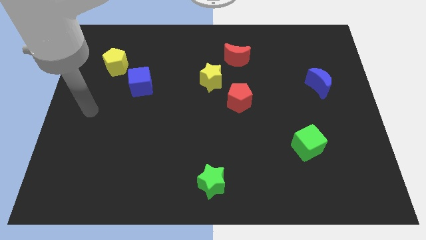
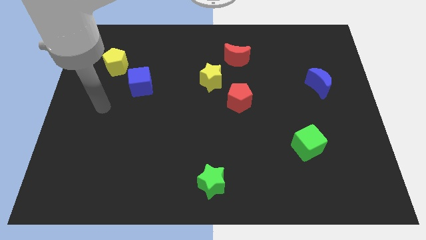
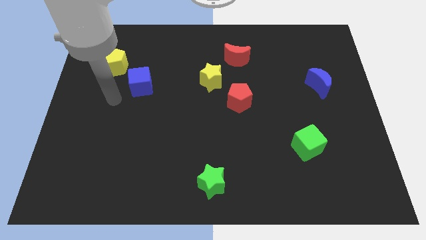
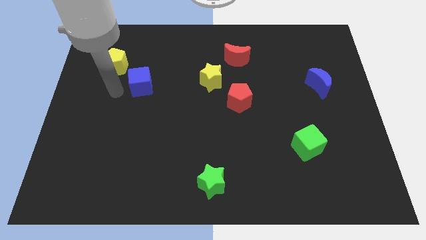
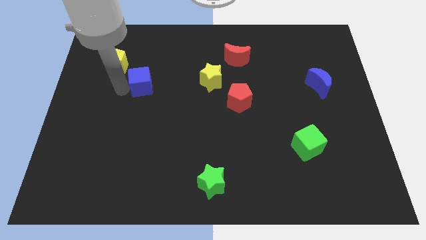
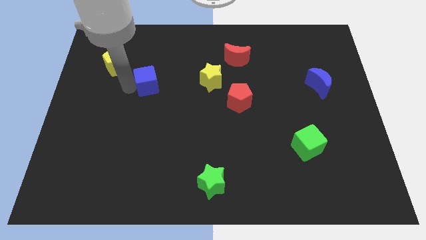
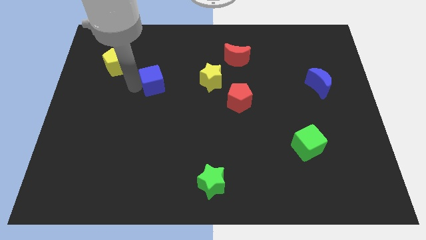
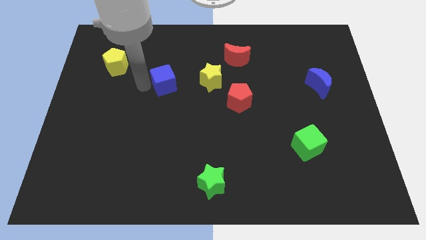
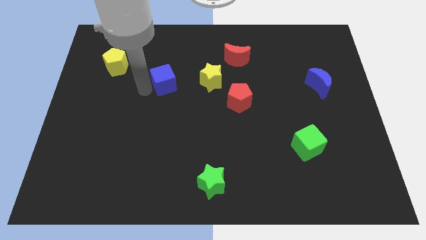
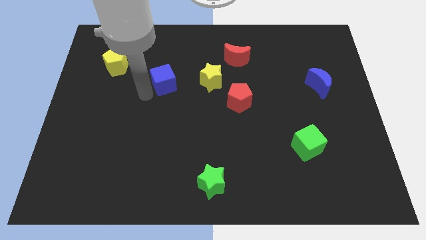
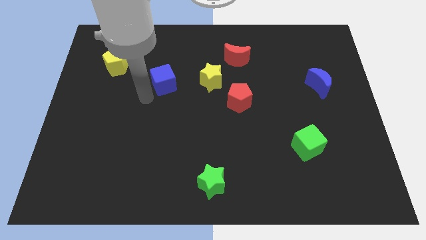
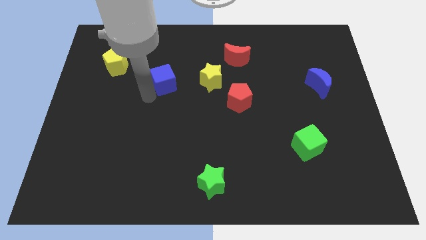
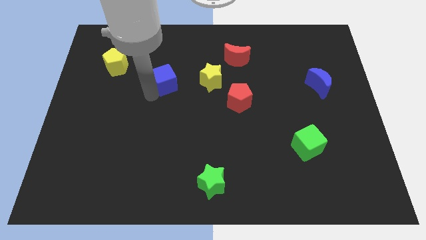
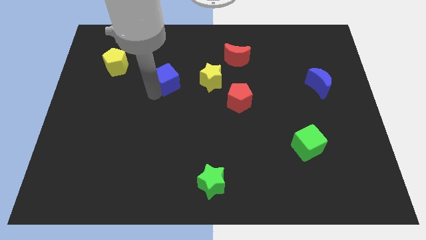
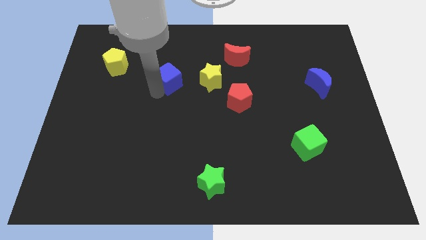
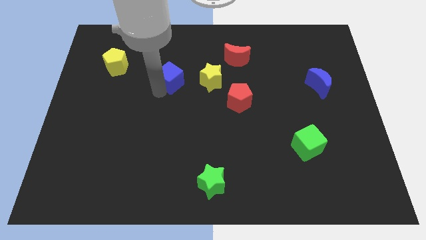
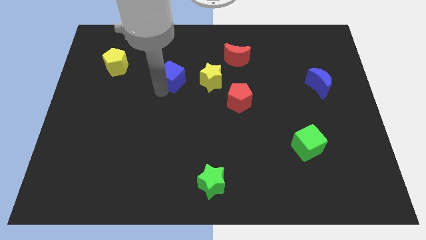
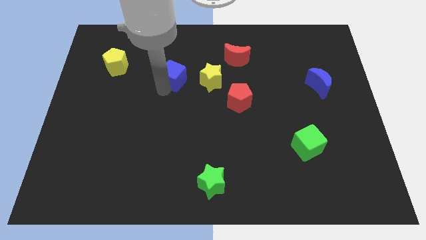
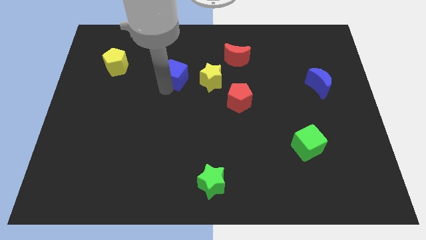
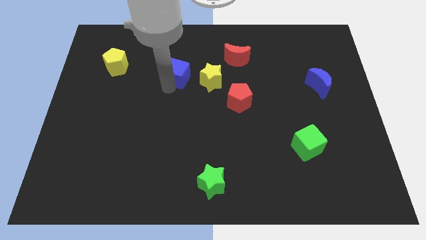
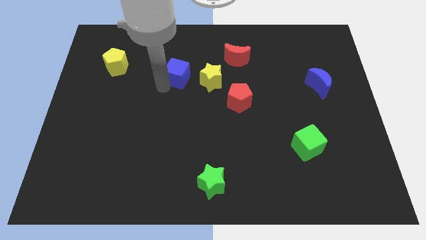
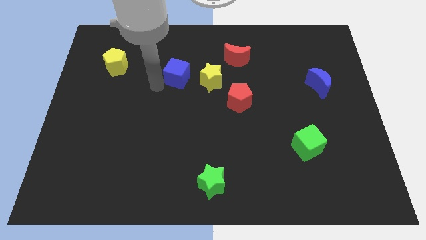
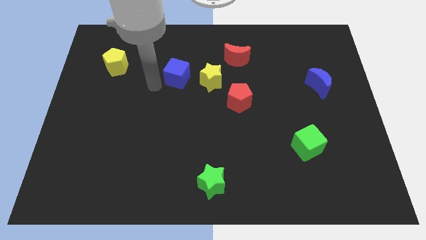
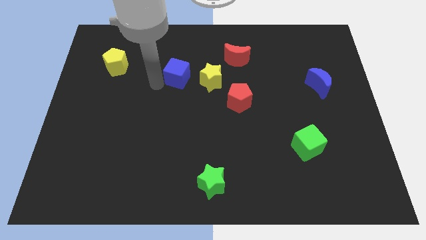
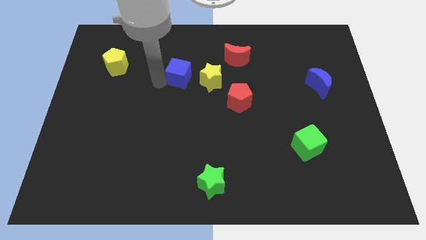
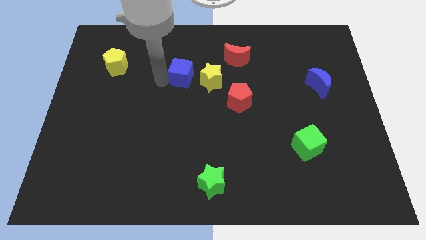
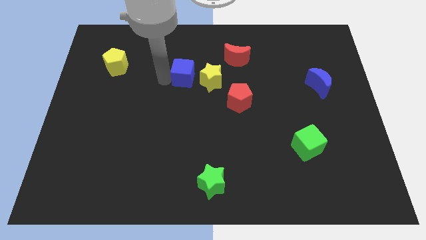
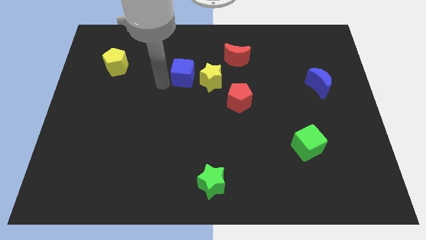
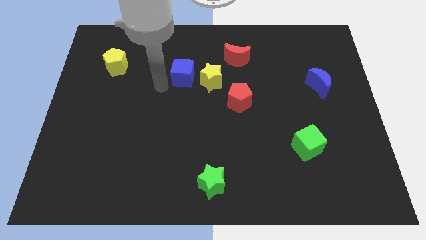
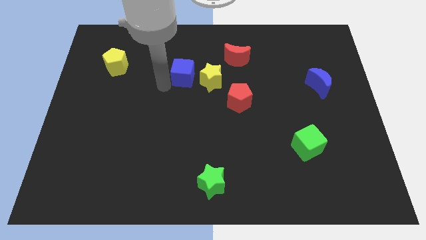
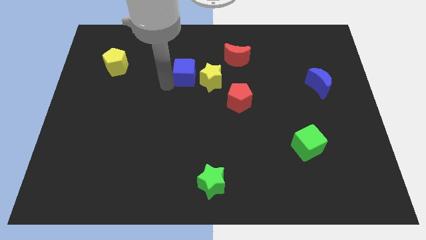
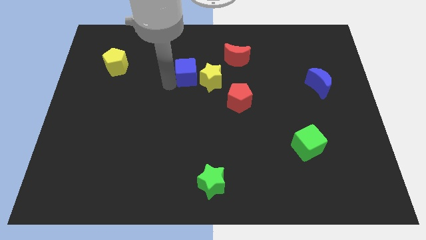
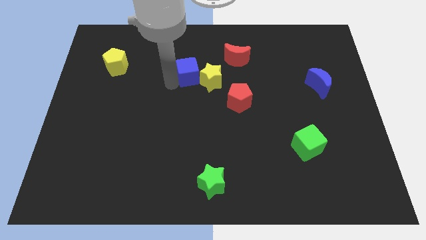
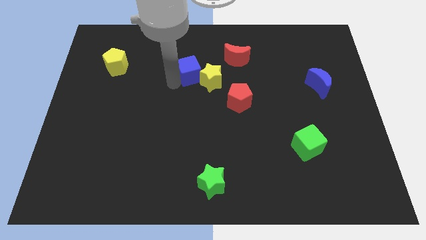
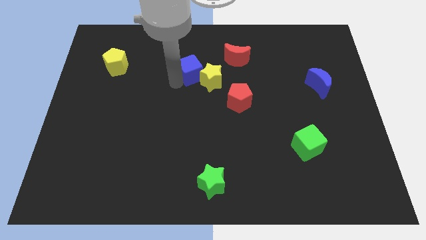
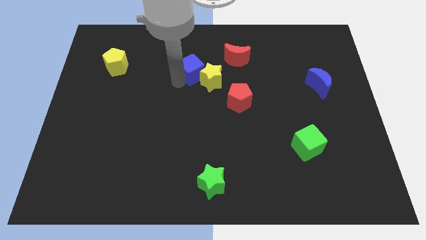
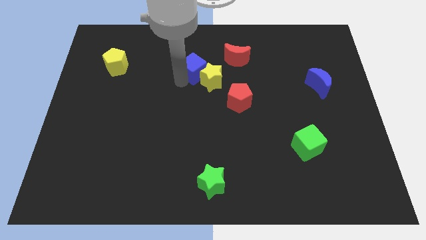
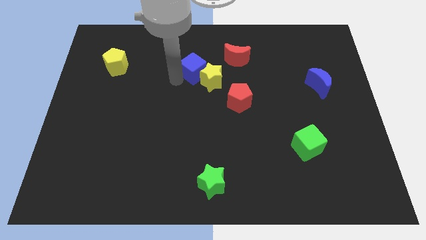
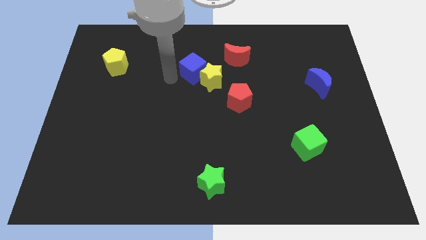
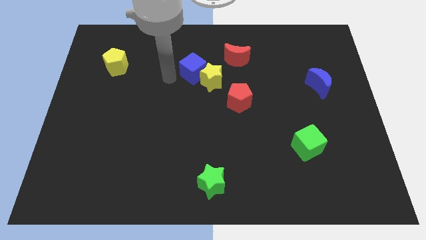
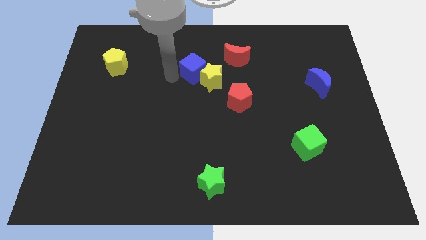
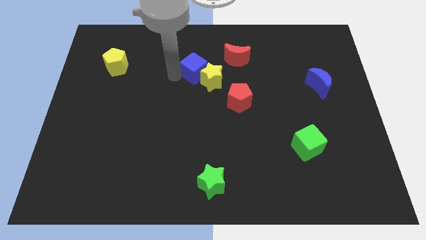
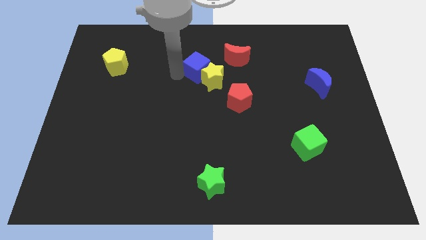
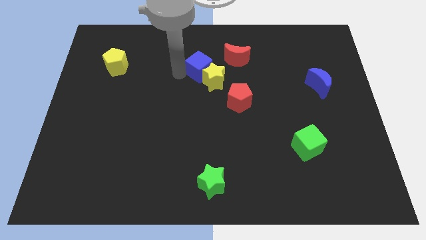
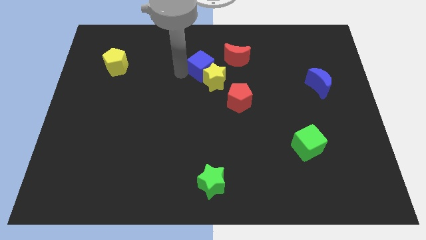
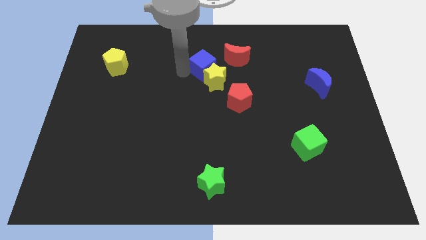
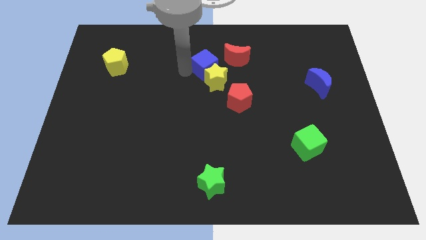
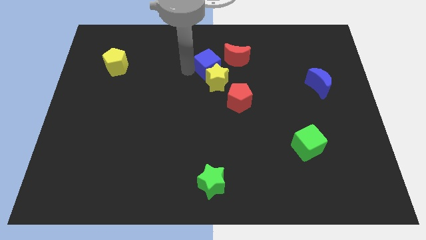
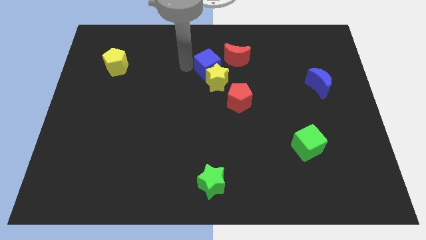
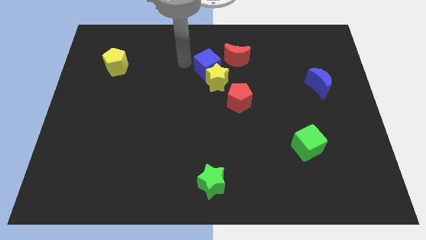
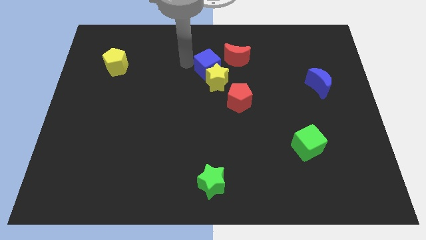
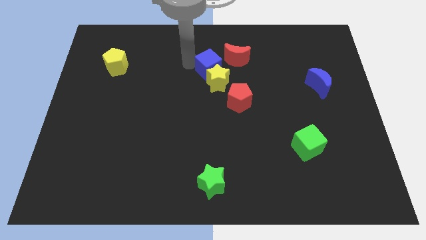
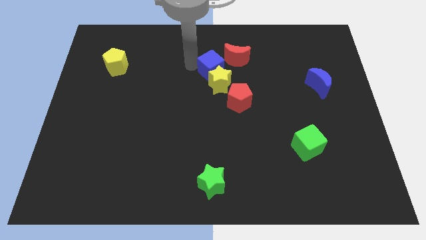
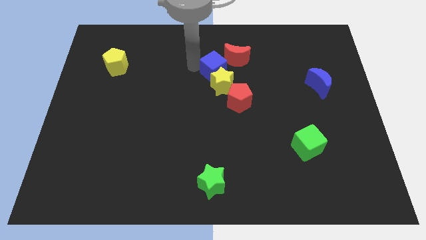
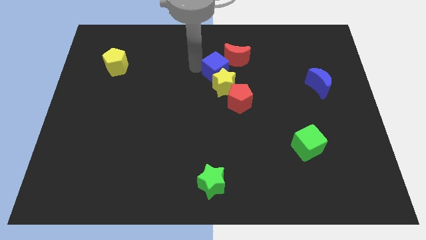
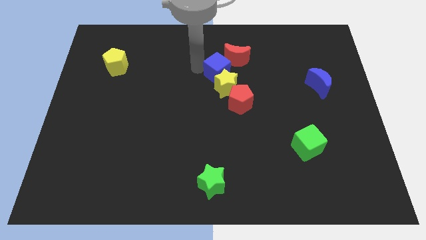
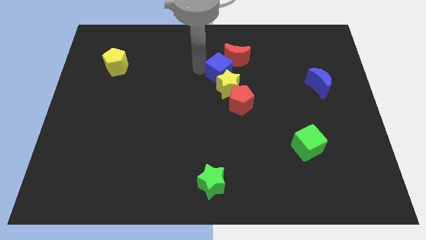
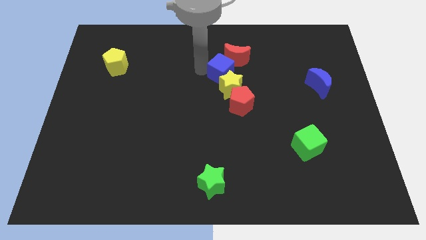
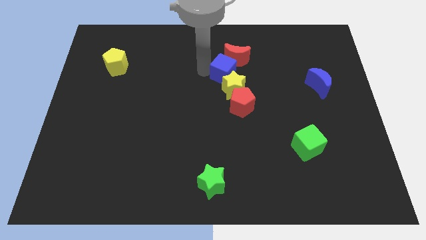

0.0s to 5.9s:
slide the blue cube to the right

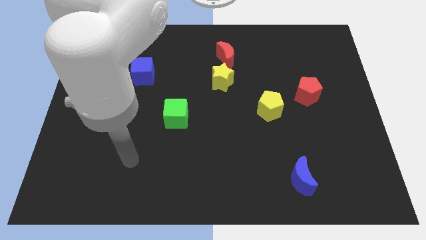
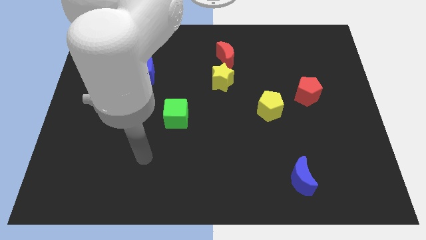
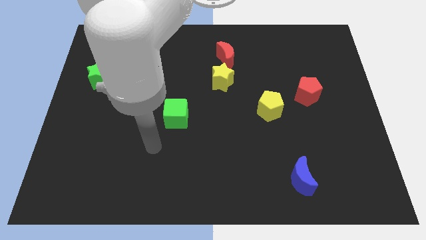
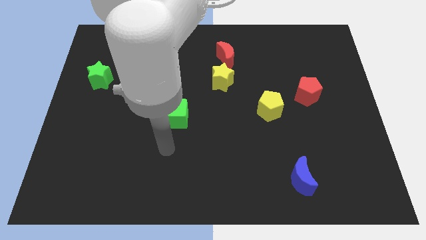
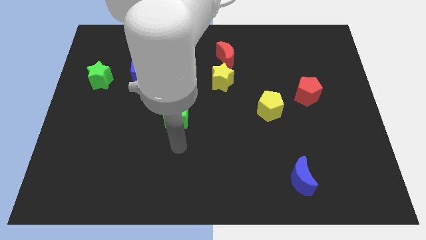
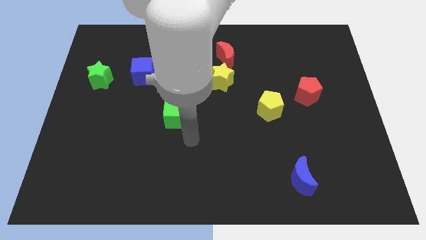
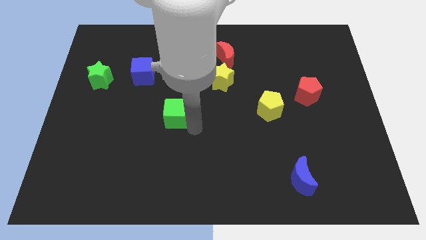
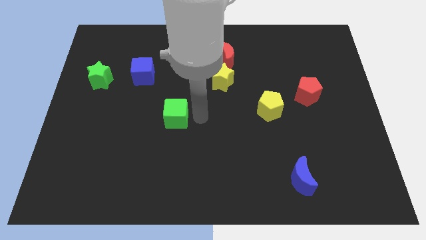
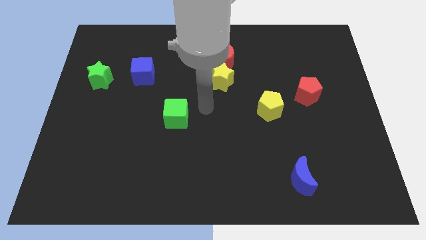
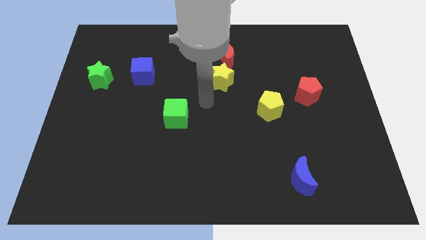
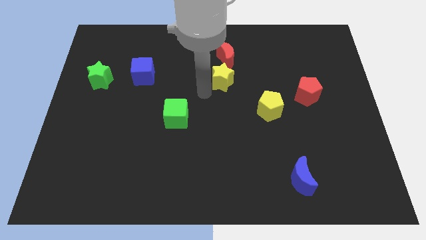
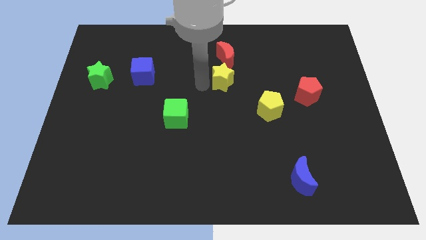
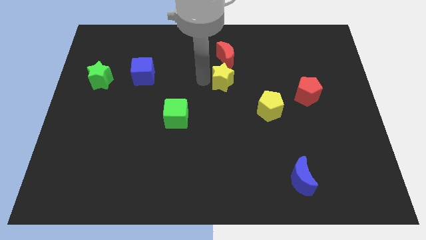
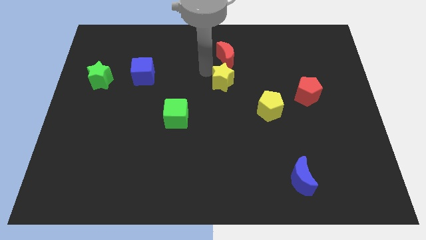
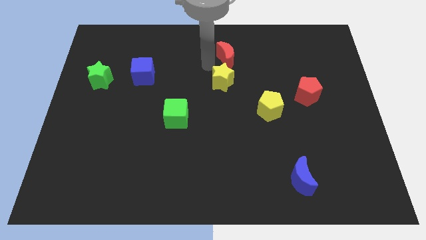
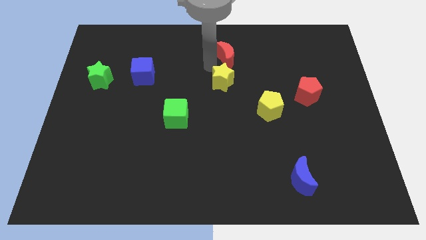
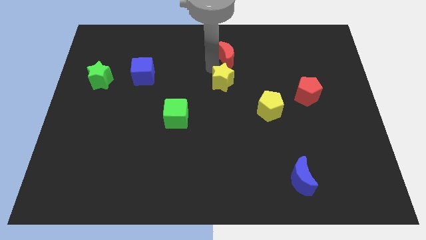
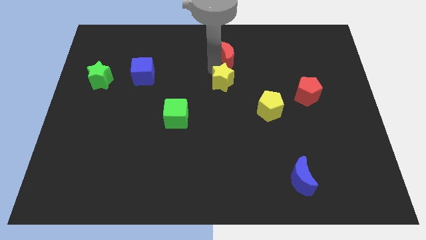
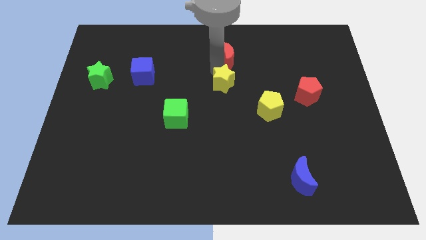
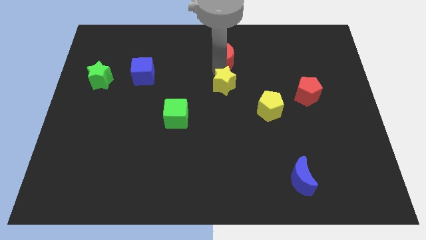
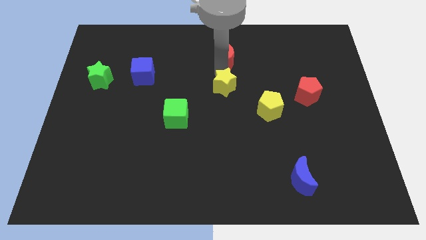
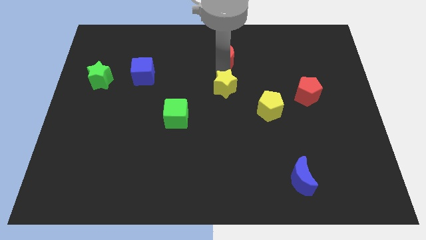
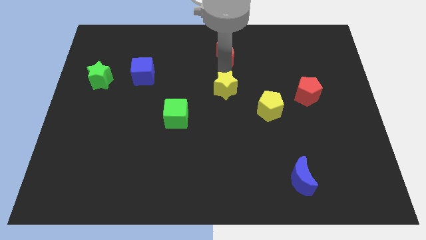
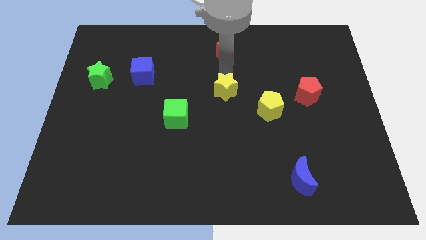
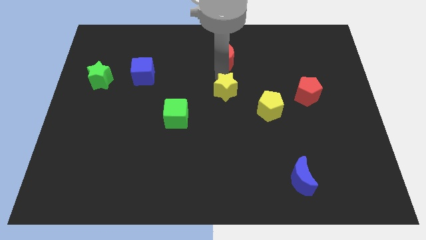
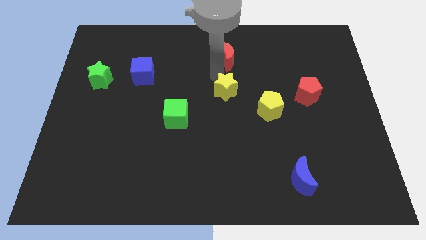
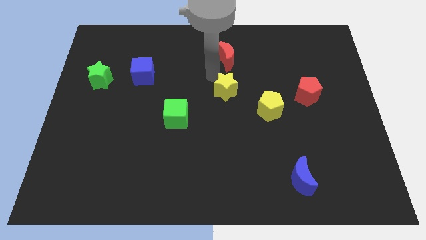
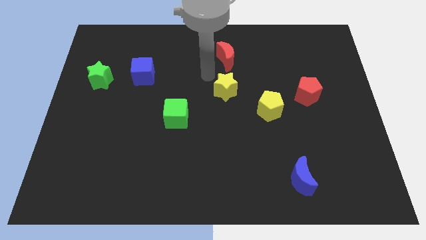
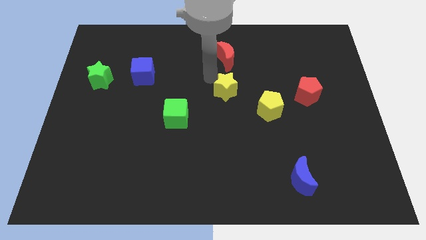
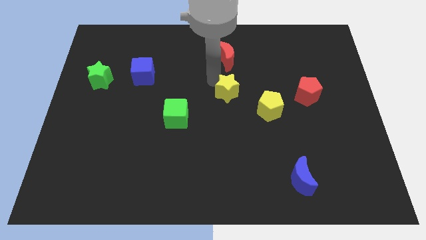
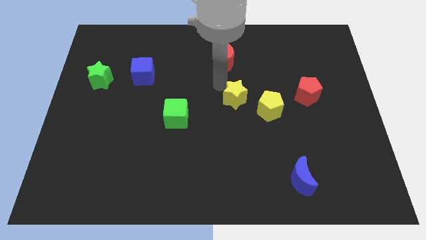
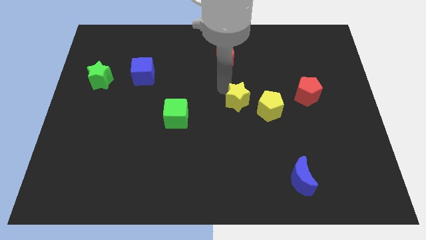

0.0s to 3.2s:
slightly move the yellow star downwards and right
